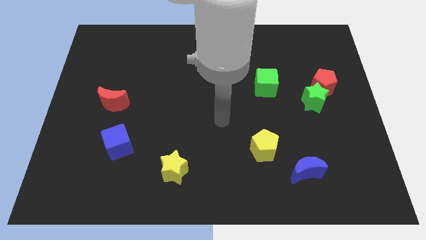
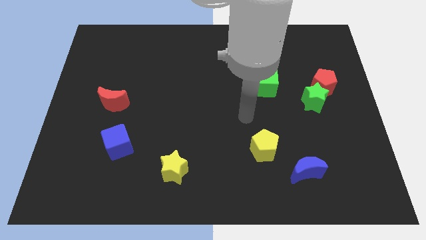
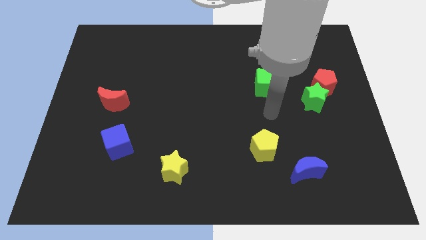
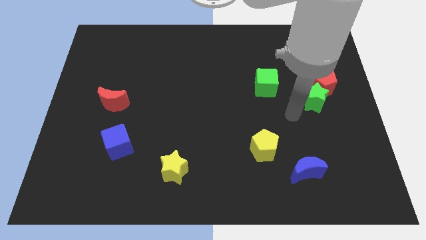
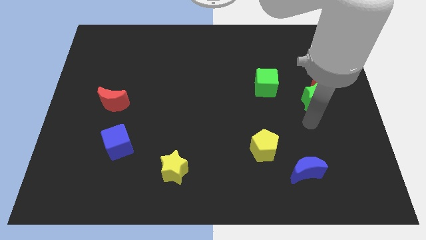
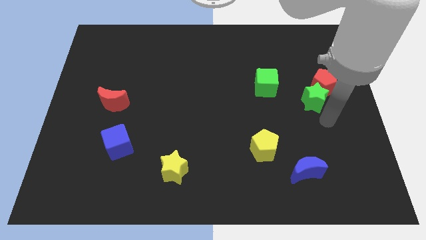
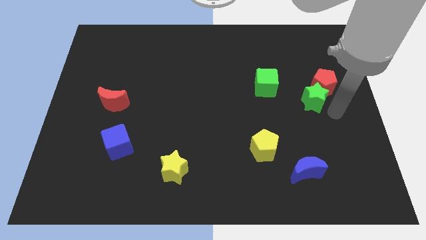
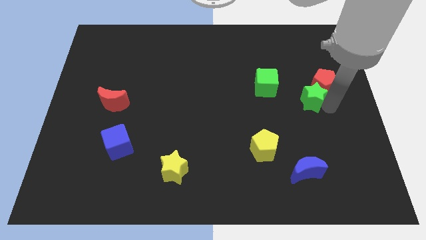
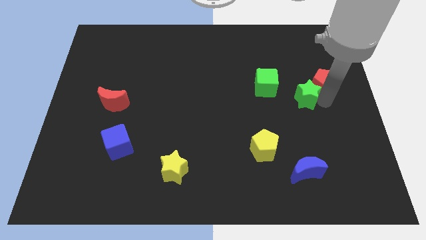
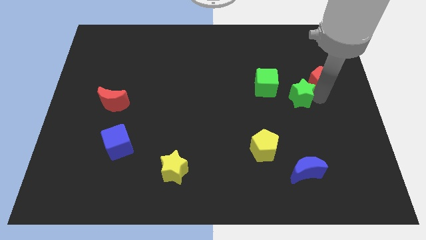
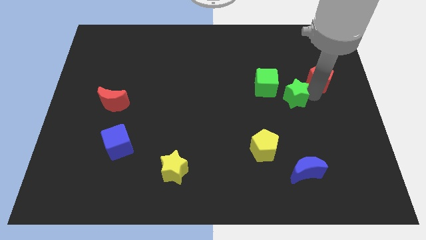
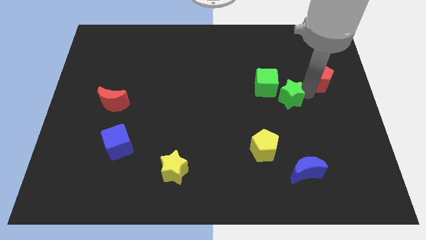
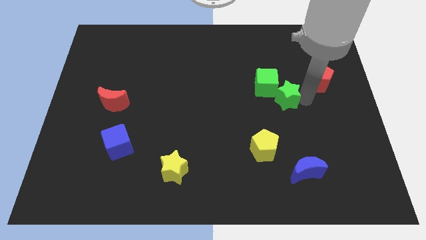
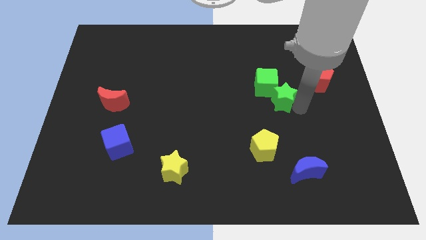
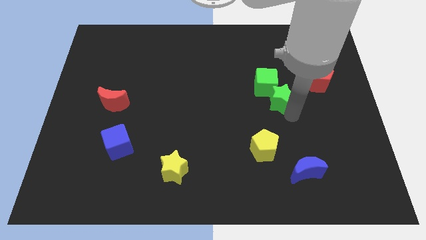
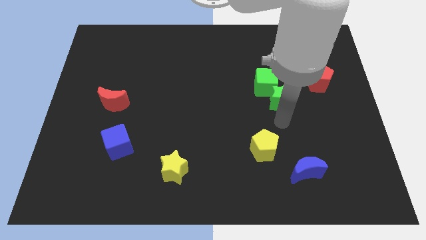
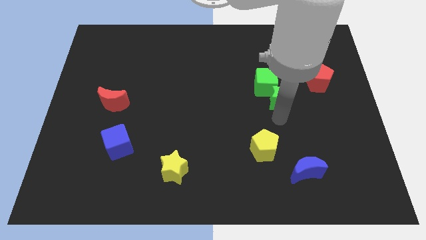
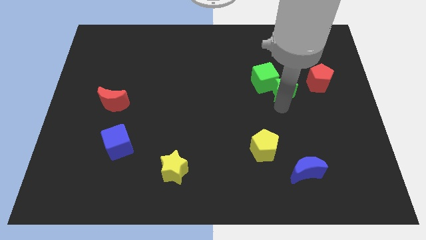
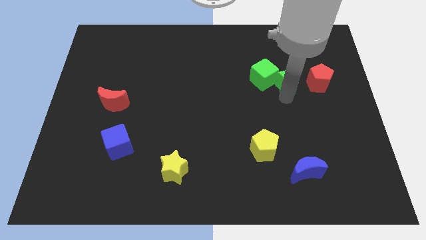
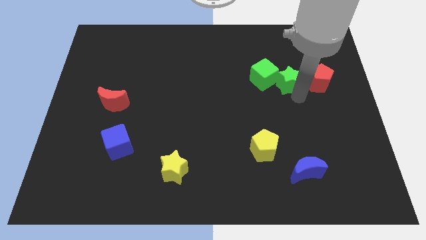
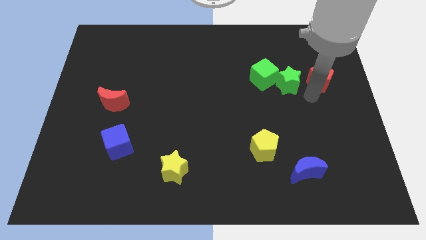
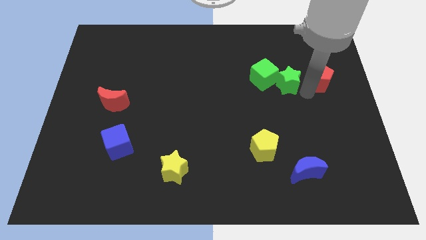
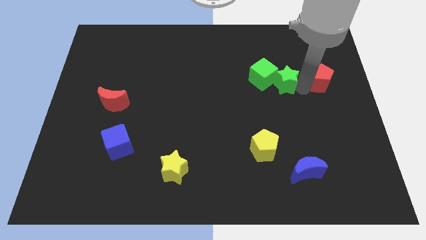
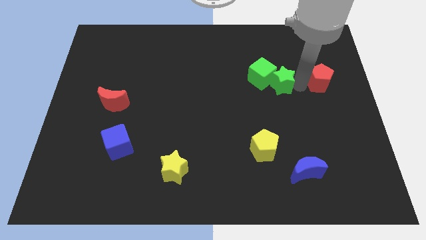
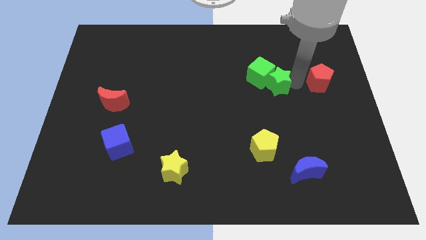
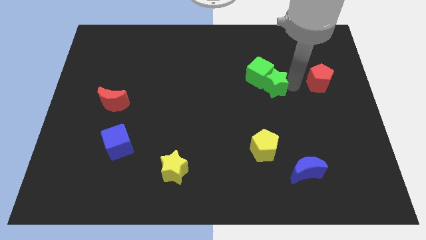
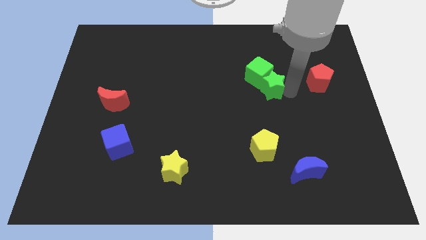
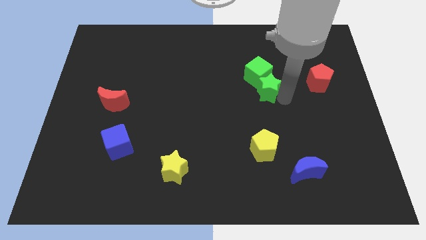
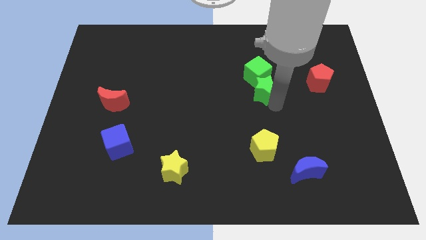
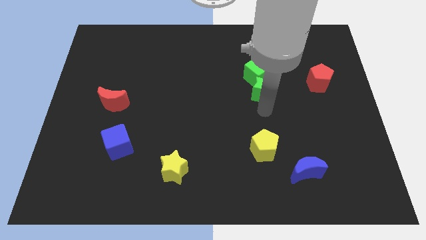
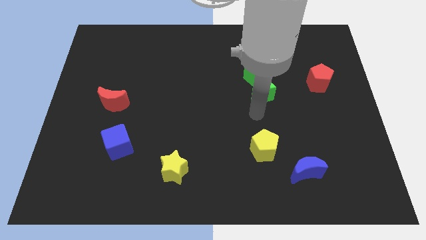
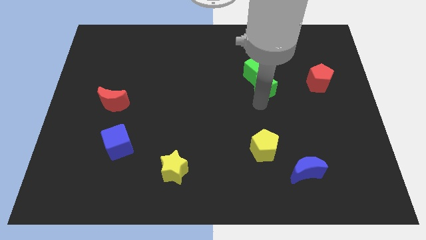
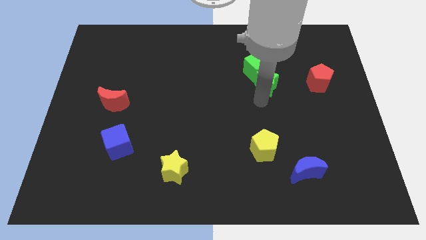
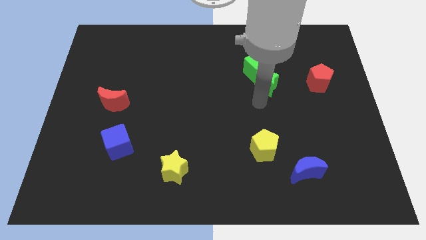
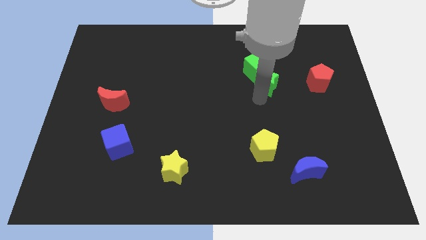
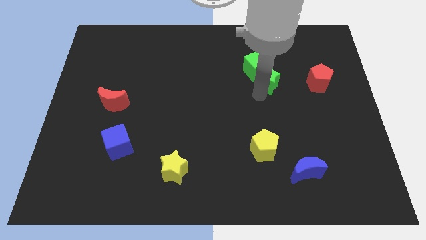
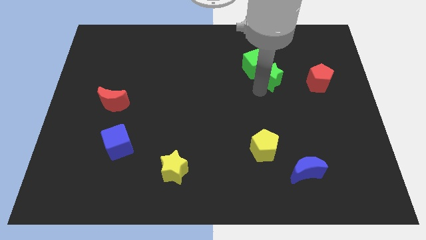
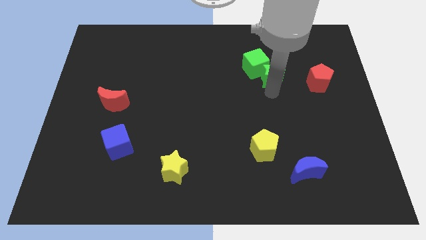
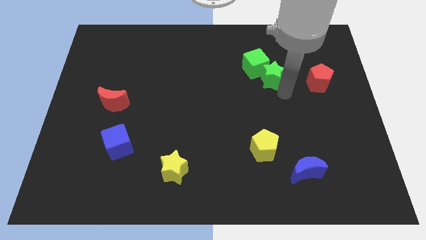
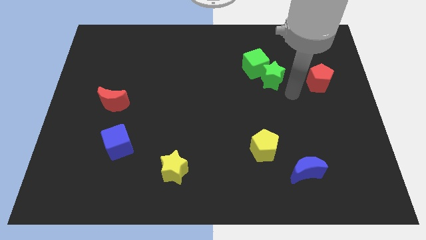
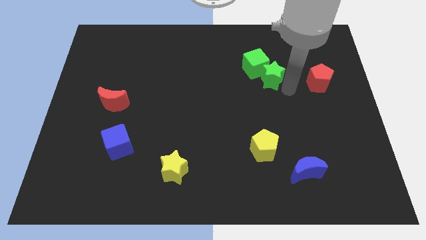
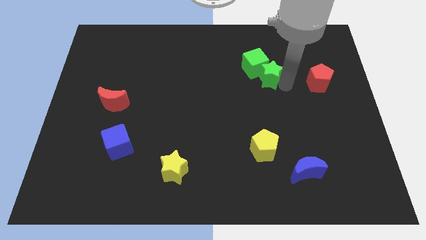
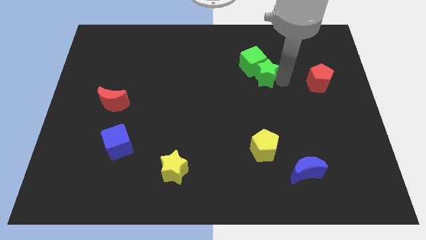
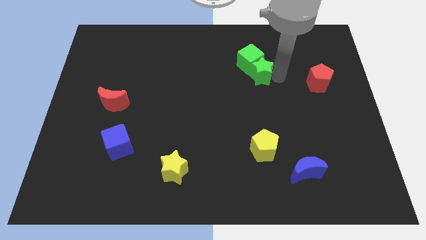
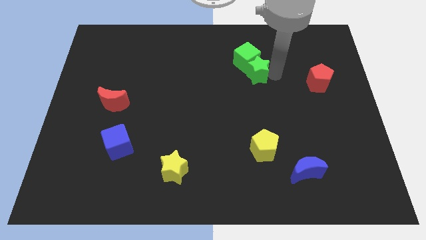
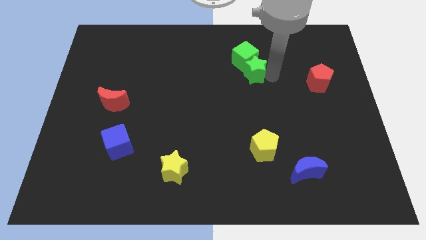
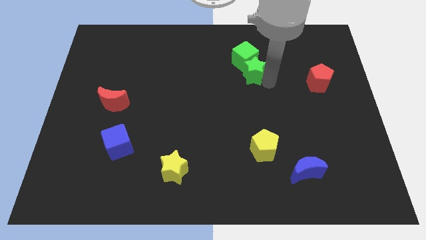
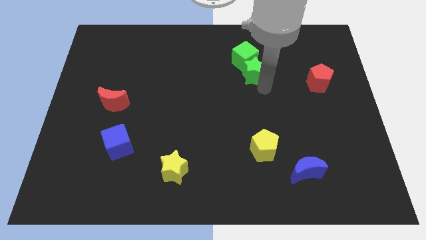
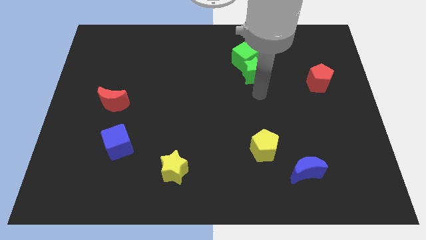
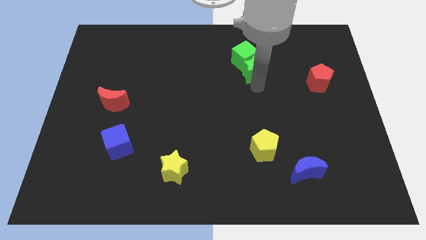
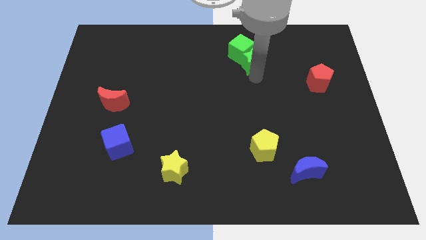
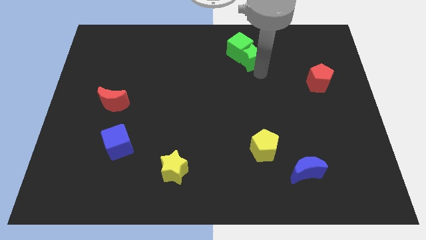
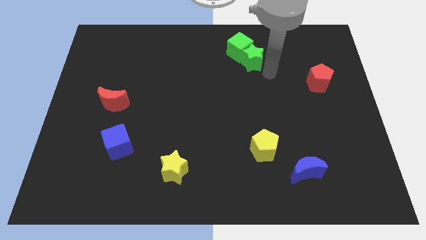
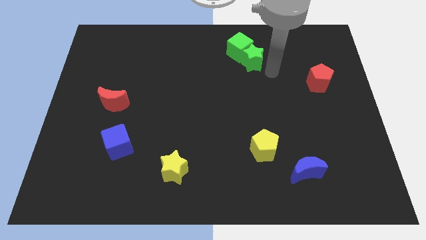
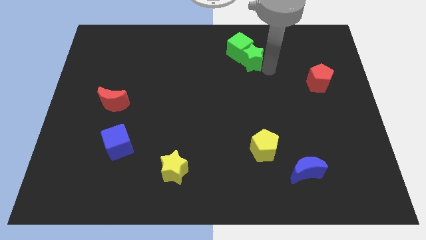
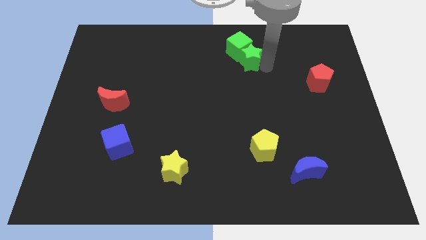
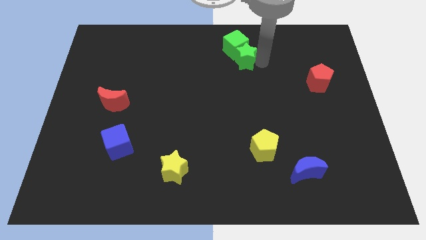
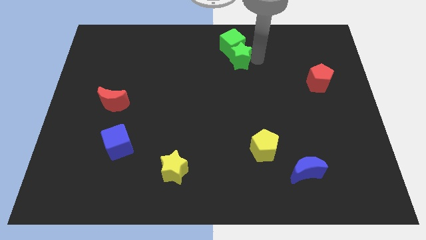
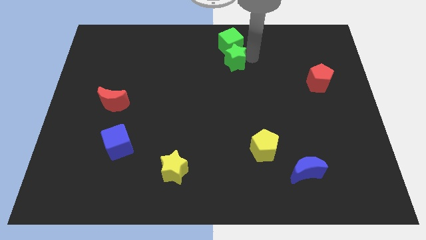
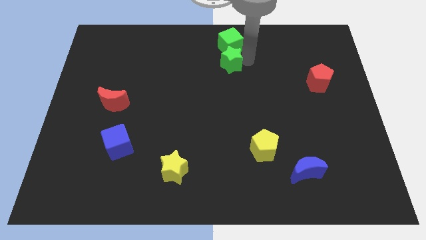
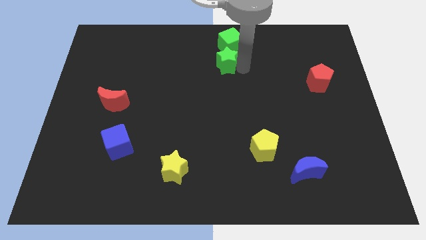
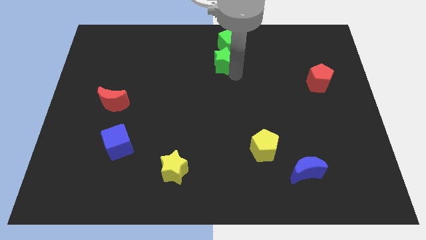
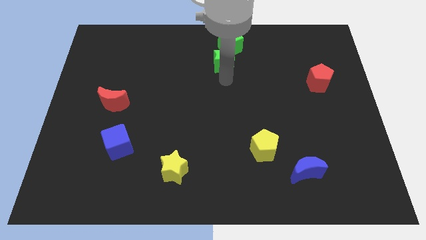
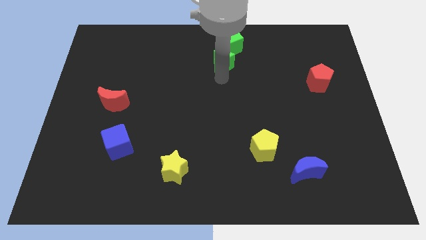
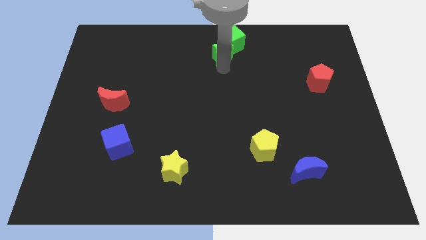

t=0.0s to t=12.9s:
put the green star to the towards your base
